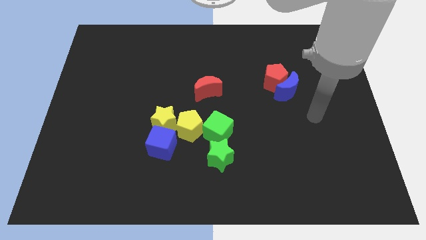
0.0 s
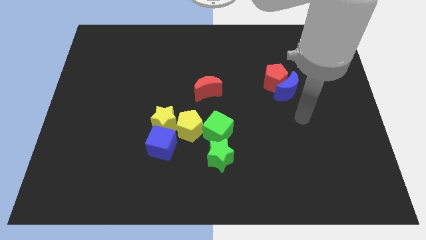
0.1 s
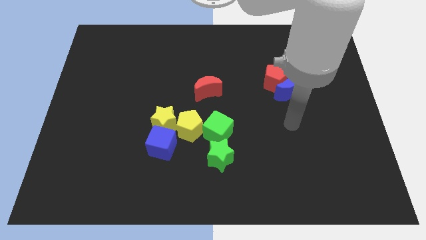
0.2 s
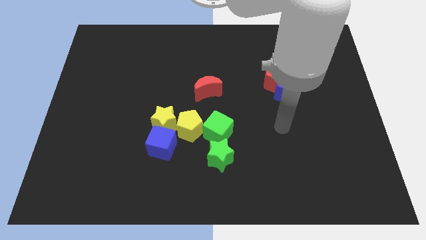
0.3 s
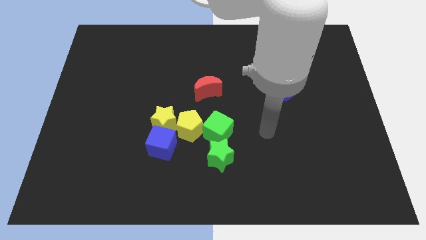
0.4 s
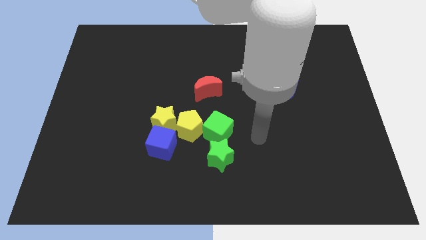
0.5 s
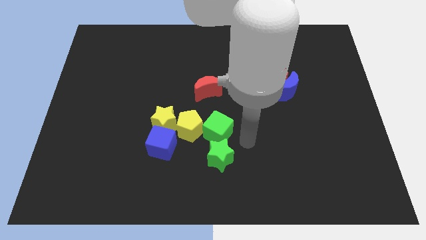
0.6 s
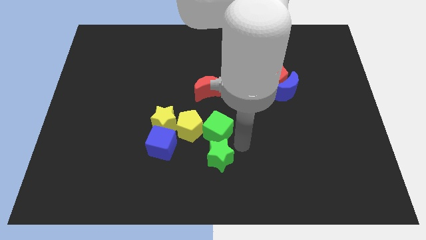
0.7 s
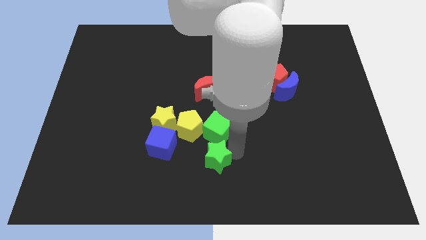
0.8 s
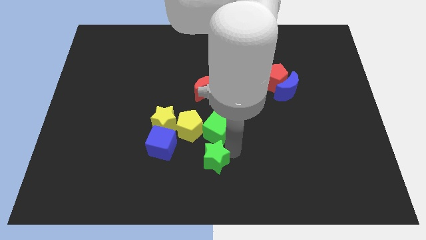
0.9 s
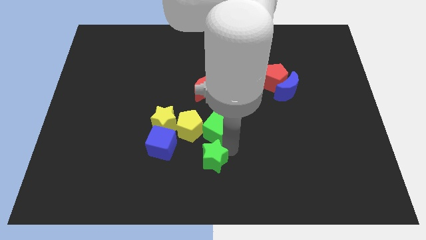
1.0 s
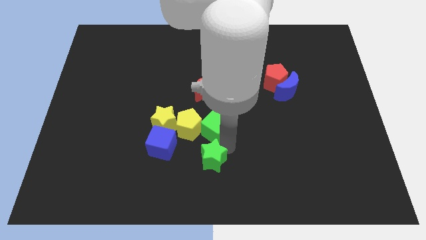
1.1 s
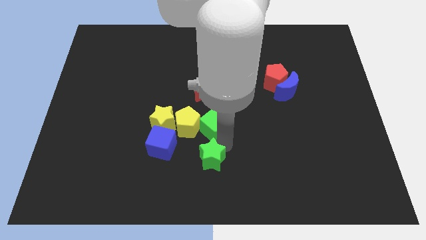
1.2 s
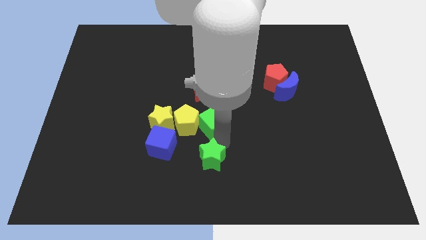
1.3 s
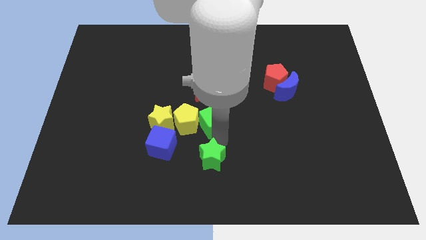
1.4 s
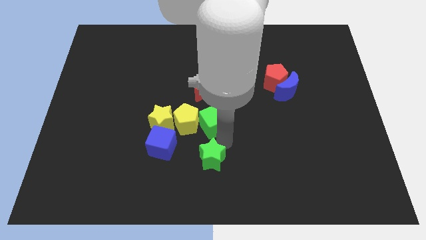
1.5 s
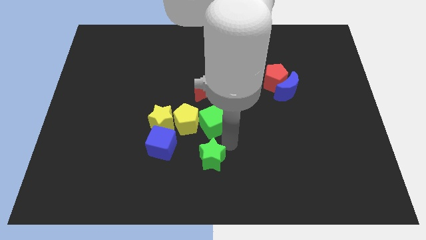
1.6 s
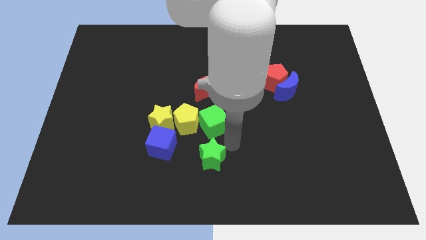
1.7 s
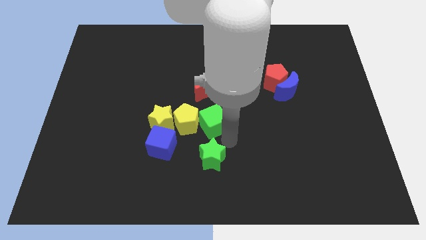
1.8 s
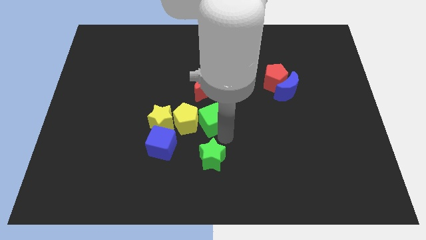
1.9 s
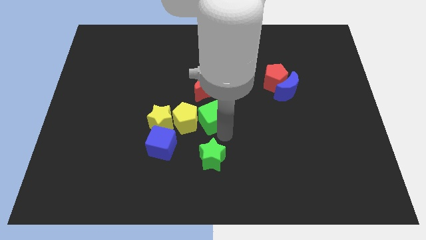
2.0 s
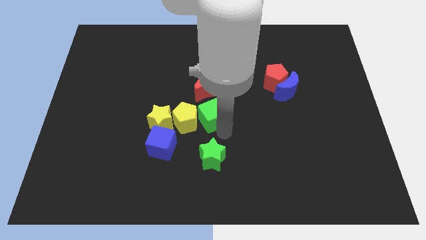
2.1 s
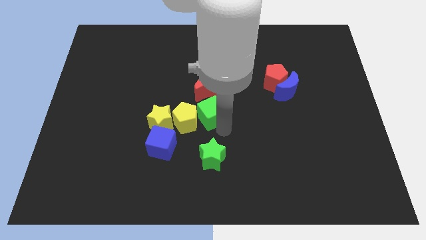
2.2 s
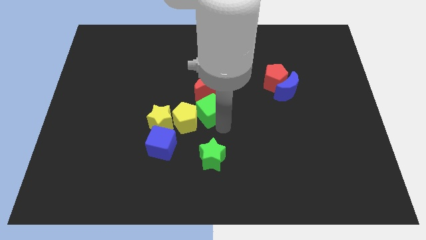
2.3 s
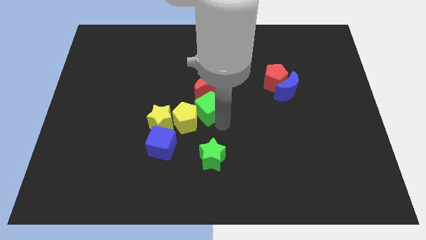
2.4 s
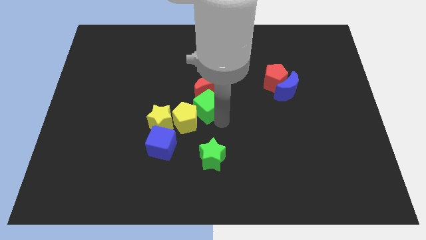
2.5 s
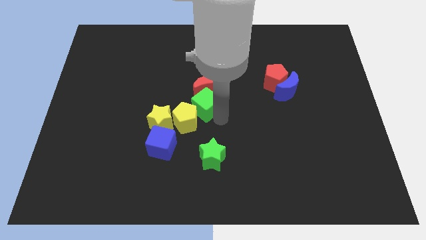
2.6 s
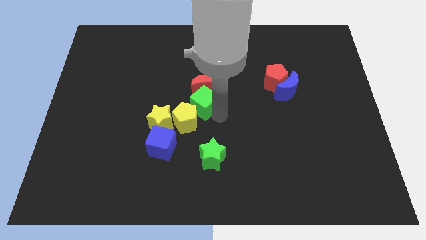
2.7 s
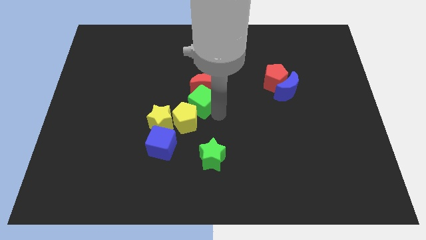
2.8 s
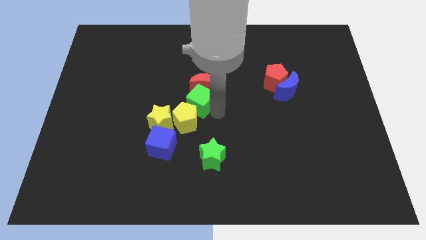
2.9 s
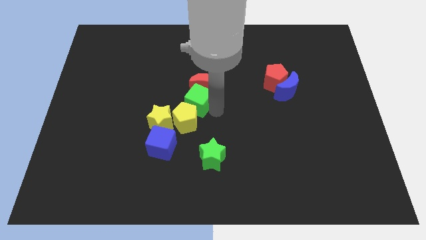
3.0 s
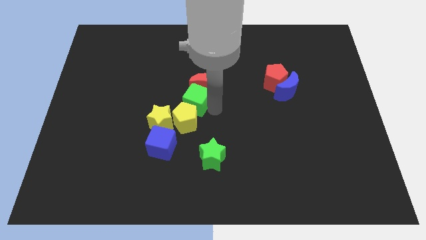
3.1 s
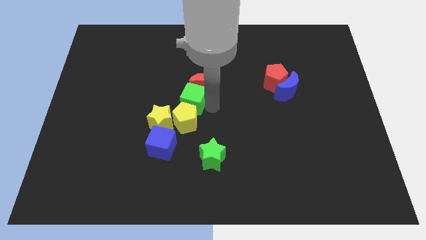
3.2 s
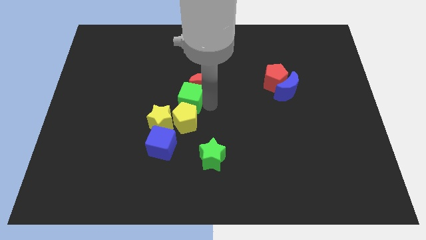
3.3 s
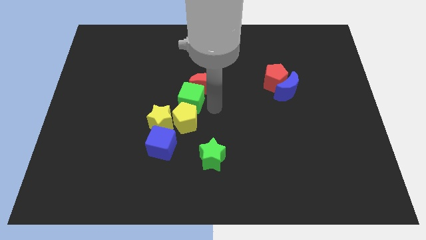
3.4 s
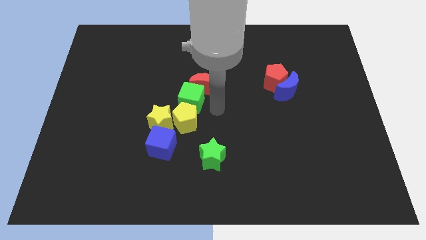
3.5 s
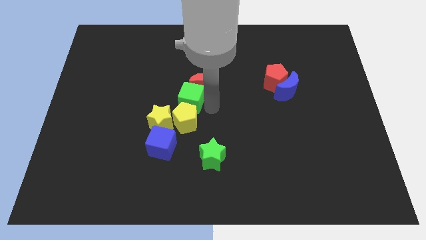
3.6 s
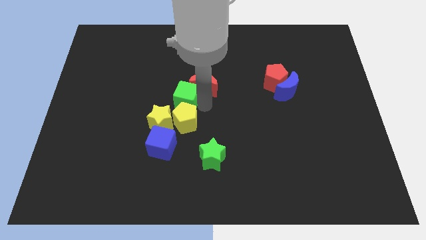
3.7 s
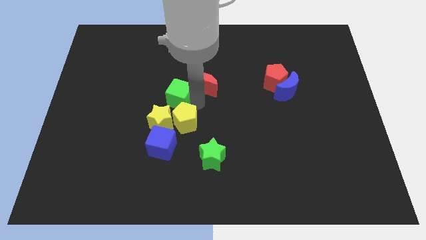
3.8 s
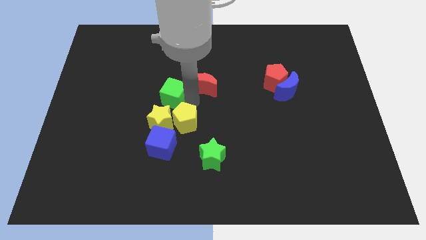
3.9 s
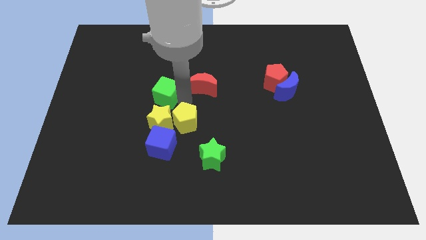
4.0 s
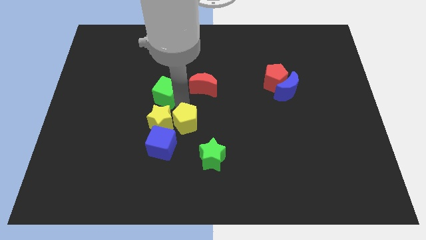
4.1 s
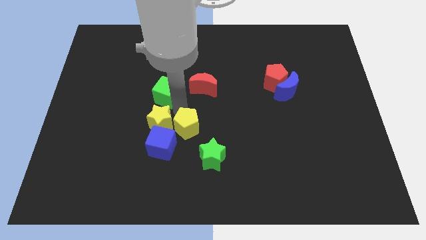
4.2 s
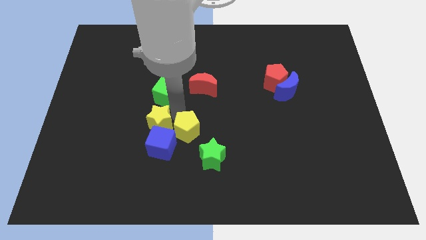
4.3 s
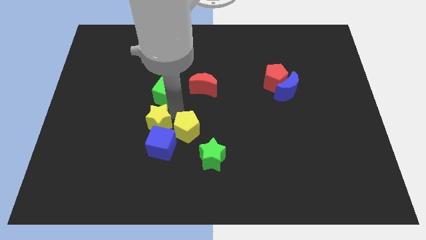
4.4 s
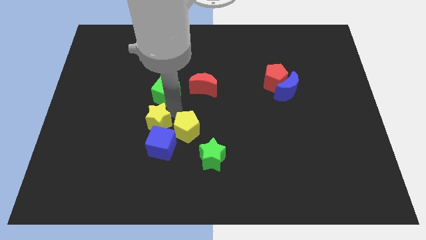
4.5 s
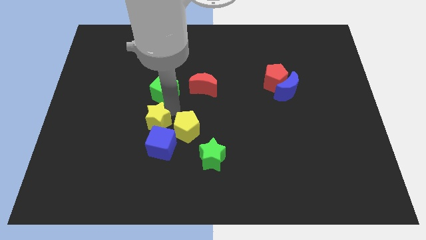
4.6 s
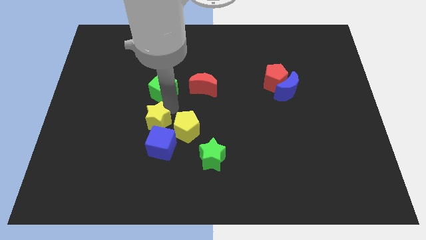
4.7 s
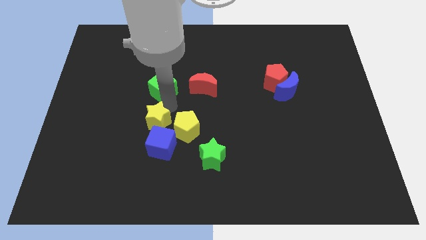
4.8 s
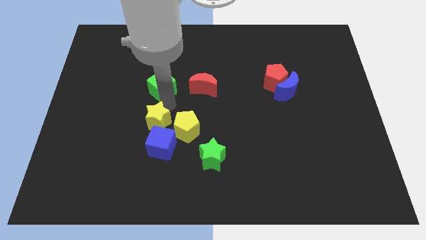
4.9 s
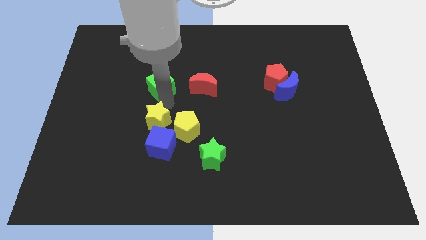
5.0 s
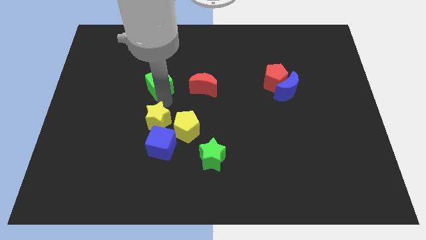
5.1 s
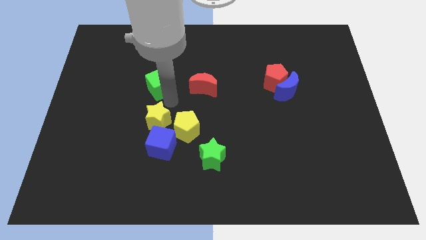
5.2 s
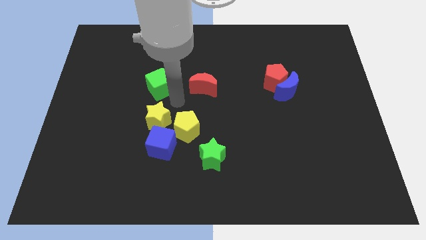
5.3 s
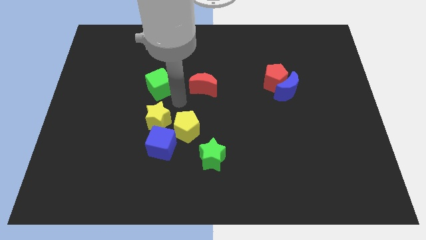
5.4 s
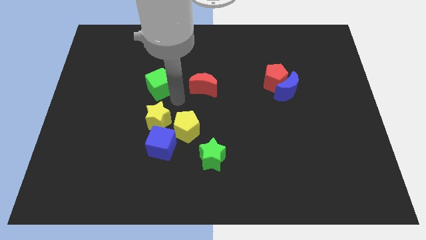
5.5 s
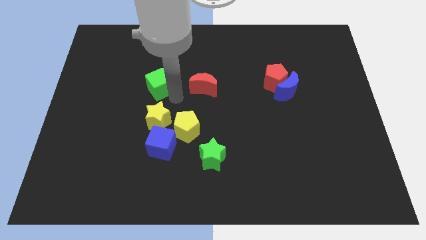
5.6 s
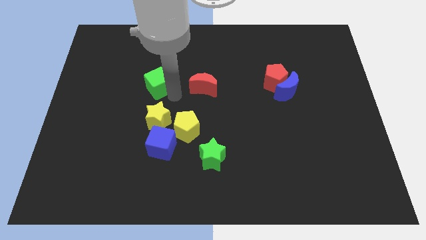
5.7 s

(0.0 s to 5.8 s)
move the green cube upwards and then to the left

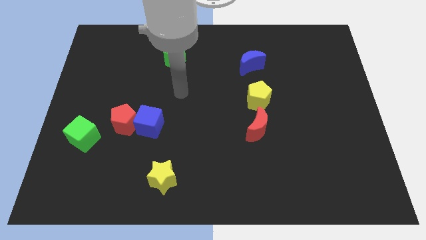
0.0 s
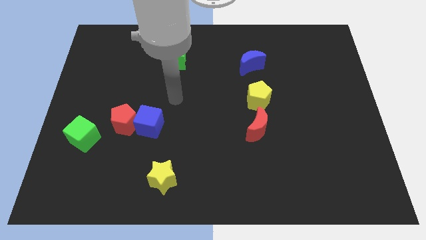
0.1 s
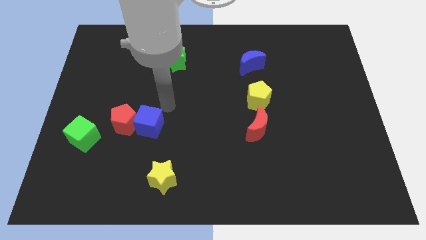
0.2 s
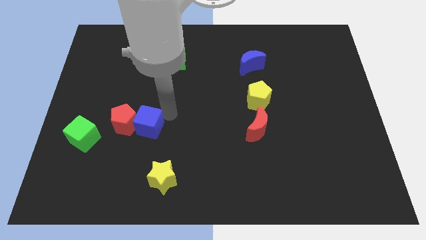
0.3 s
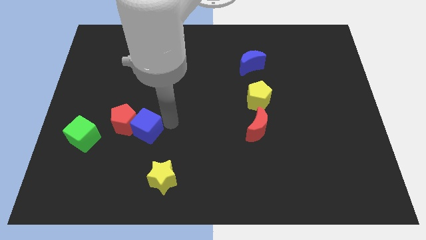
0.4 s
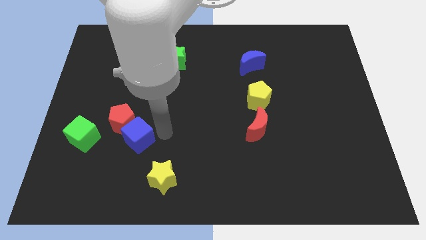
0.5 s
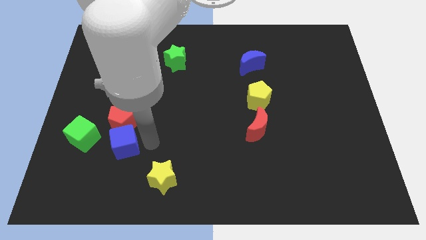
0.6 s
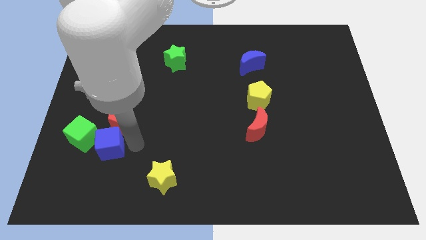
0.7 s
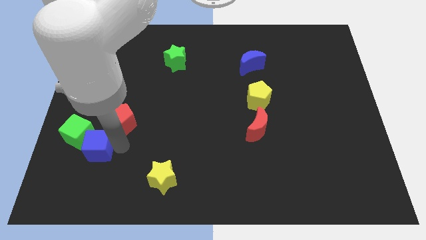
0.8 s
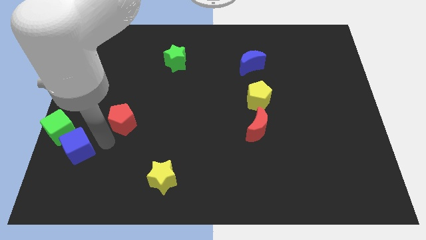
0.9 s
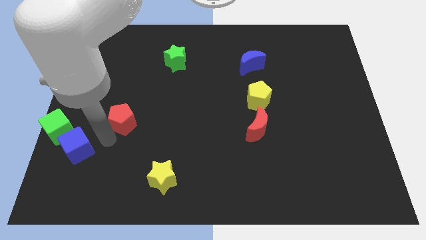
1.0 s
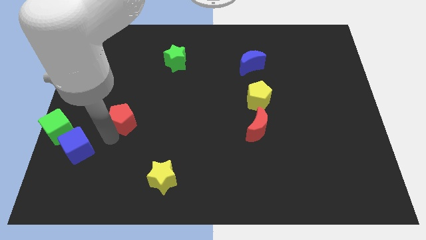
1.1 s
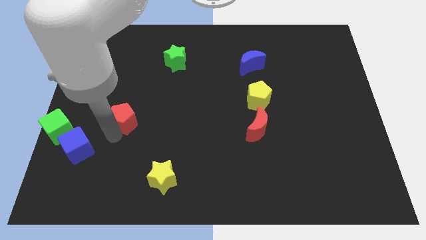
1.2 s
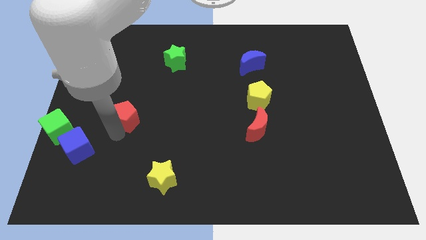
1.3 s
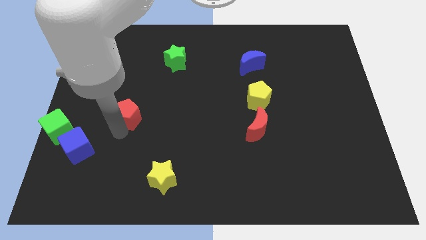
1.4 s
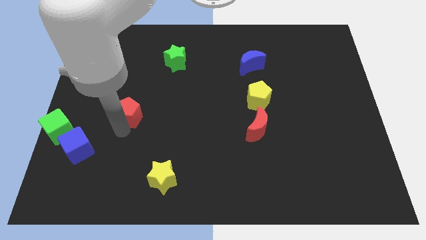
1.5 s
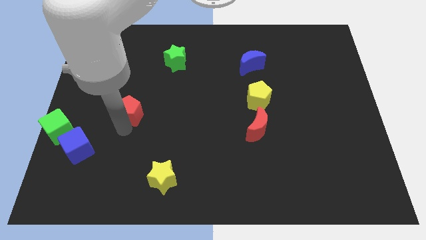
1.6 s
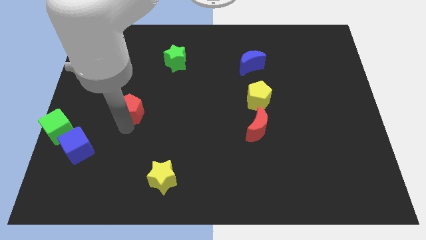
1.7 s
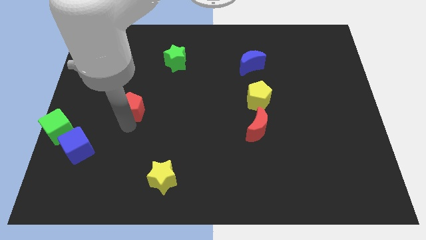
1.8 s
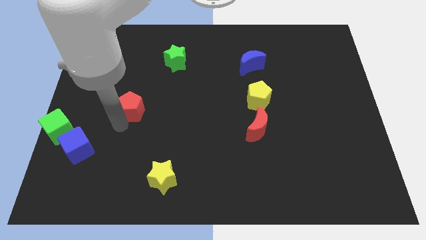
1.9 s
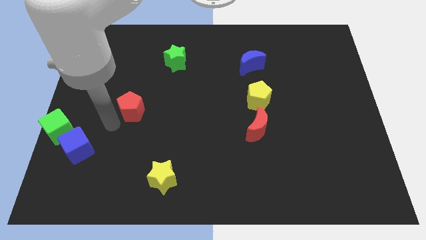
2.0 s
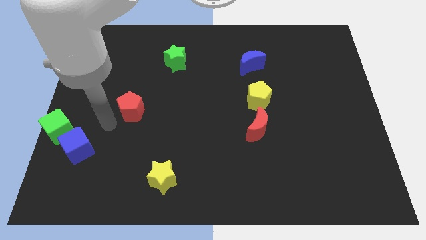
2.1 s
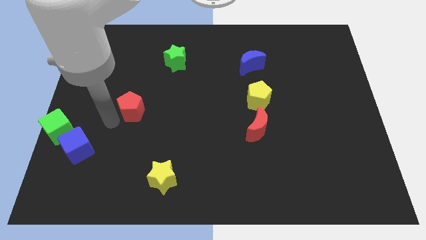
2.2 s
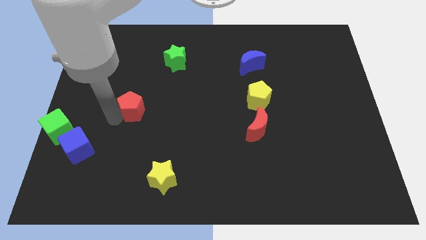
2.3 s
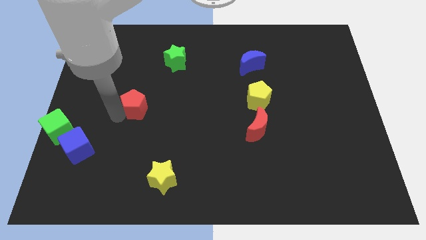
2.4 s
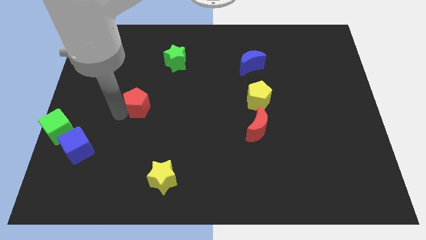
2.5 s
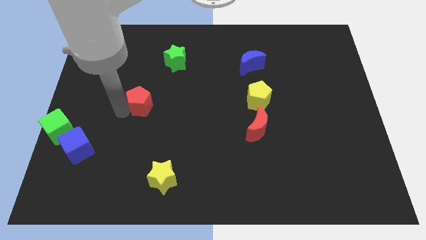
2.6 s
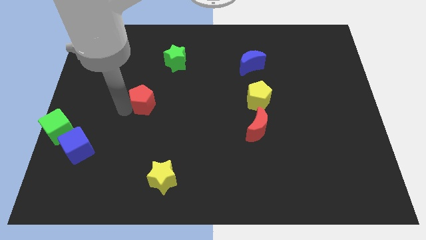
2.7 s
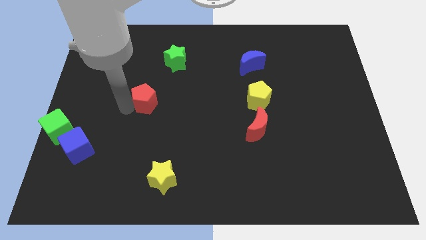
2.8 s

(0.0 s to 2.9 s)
slide the red pentagon somewhat diagonally upwards and right
